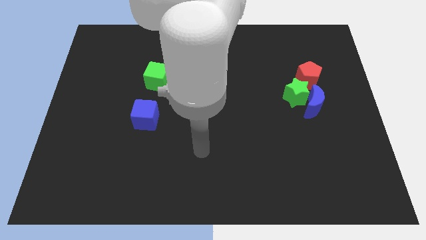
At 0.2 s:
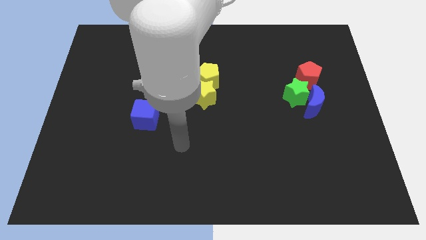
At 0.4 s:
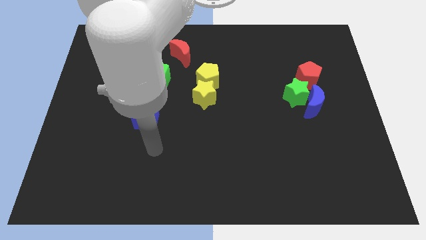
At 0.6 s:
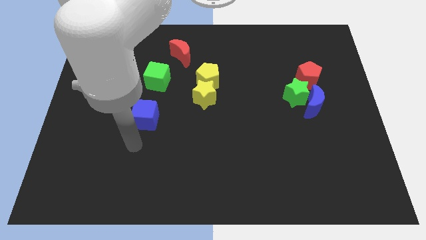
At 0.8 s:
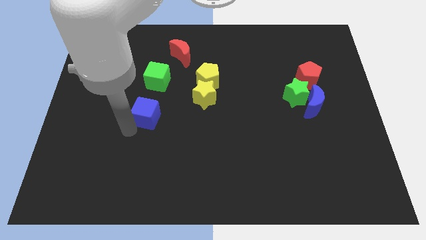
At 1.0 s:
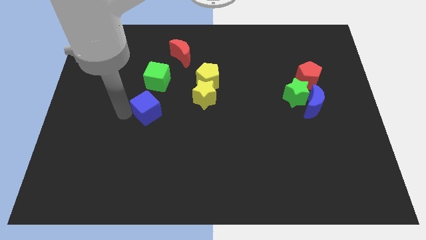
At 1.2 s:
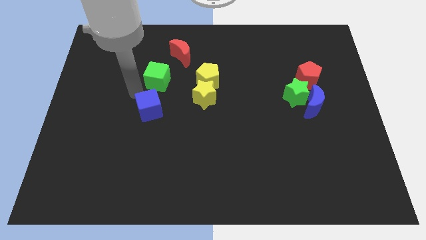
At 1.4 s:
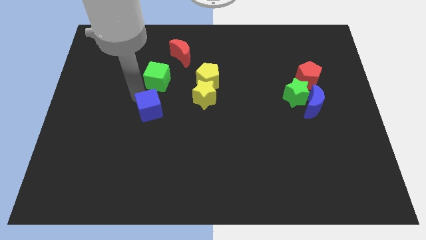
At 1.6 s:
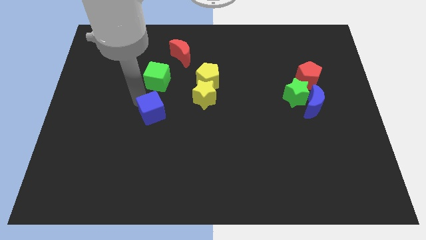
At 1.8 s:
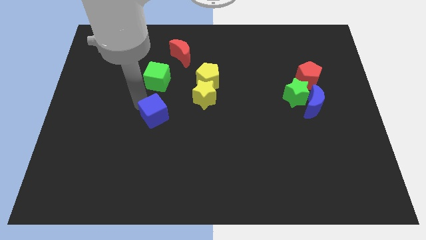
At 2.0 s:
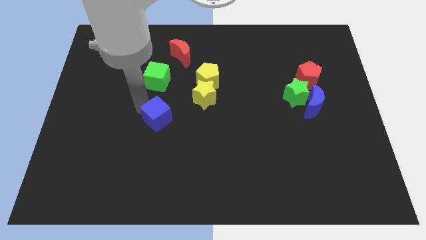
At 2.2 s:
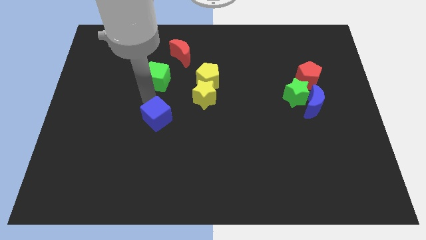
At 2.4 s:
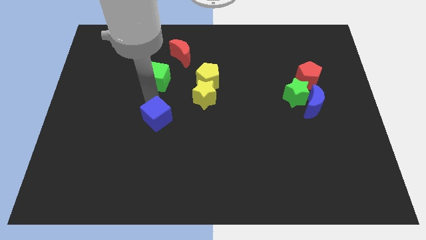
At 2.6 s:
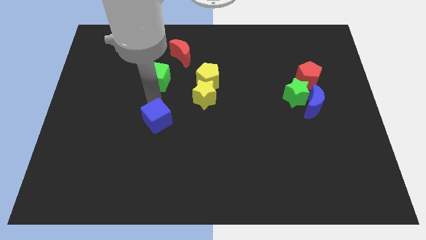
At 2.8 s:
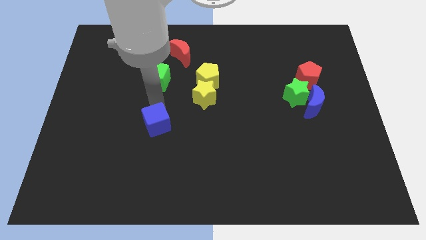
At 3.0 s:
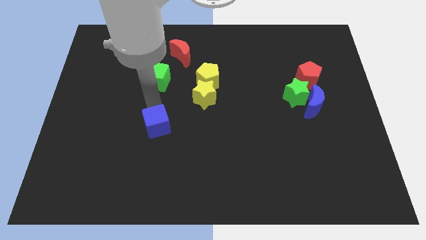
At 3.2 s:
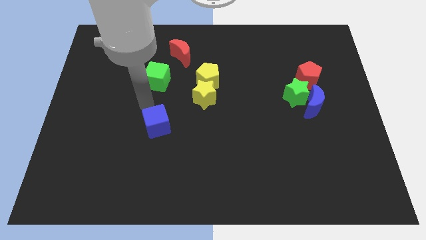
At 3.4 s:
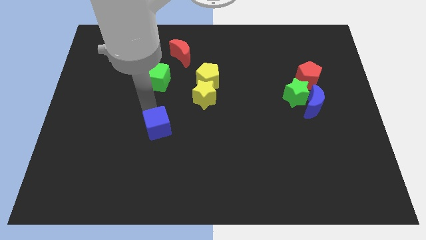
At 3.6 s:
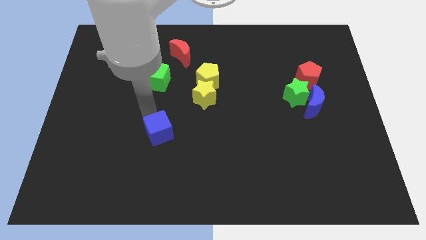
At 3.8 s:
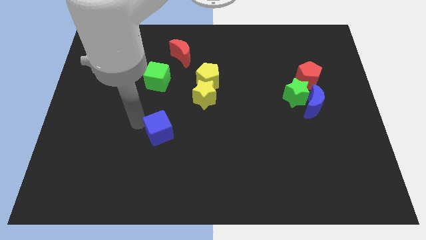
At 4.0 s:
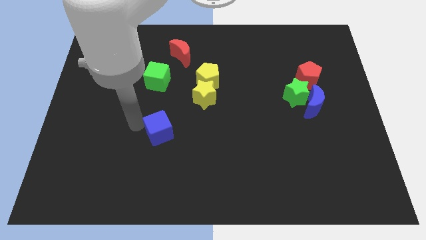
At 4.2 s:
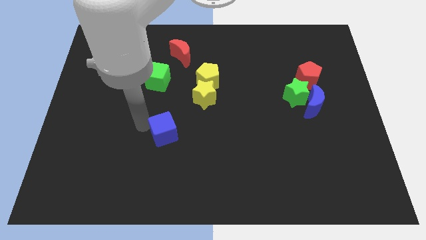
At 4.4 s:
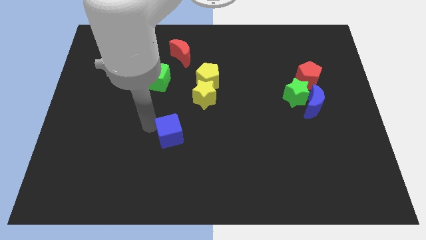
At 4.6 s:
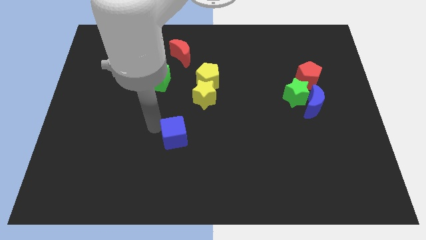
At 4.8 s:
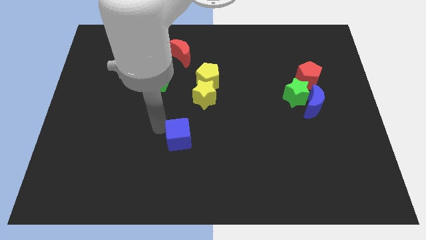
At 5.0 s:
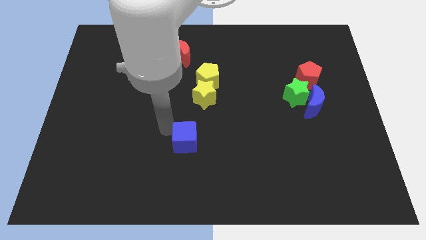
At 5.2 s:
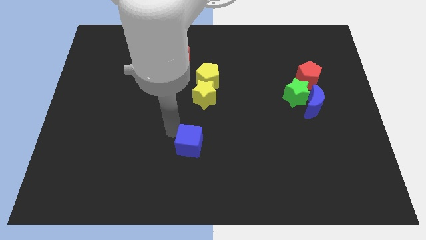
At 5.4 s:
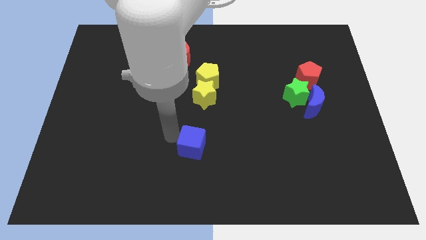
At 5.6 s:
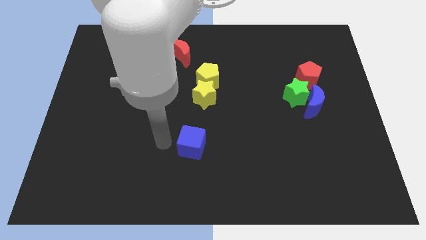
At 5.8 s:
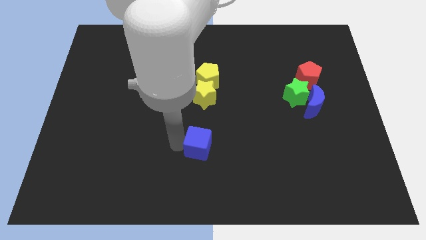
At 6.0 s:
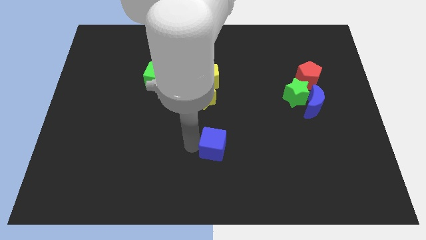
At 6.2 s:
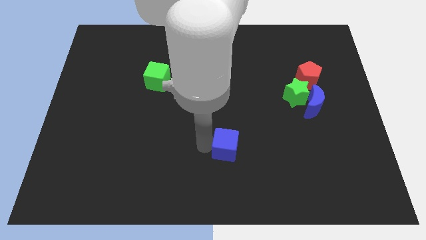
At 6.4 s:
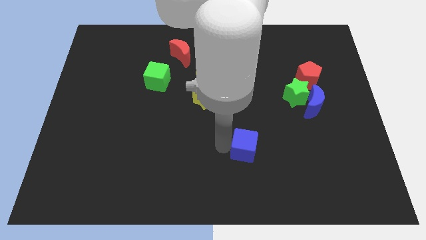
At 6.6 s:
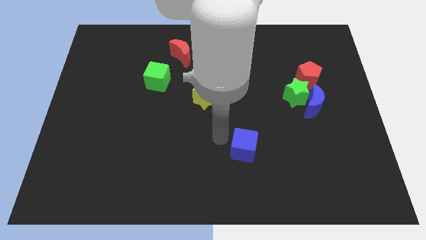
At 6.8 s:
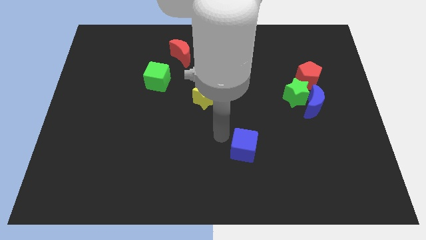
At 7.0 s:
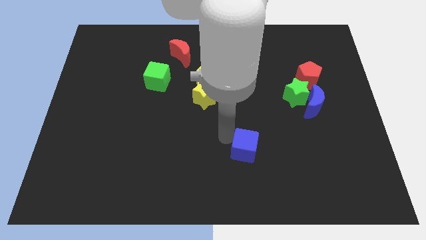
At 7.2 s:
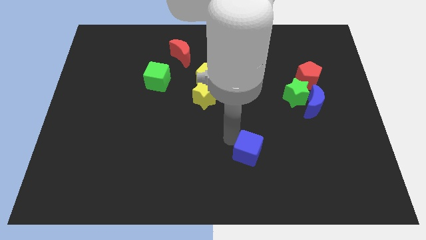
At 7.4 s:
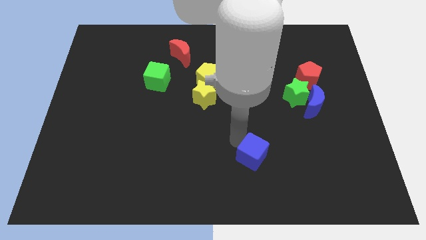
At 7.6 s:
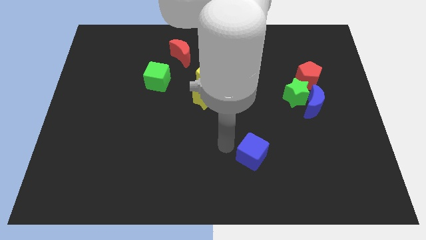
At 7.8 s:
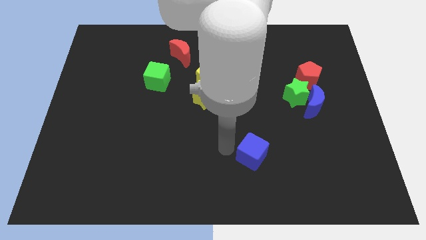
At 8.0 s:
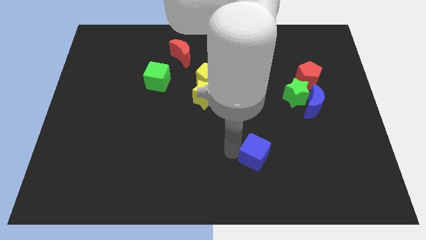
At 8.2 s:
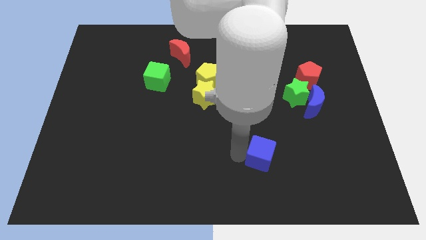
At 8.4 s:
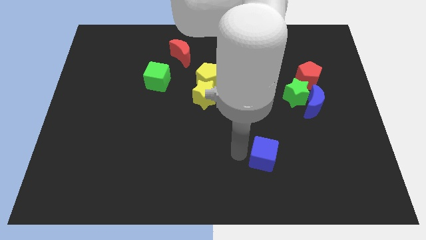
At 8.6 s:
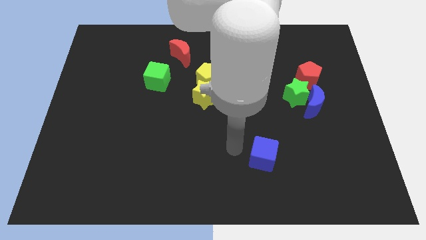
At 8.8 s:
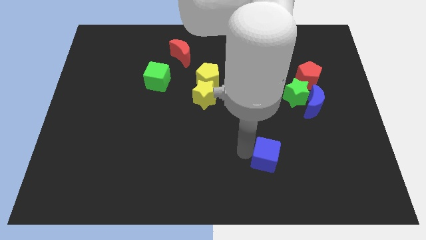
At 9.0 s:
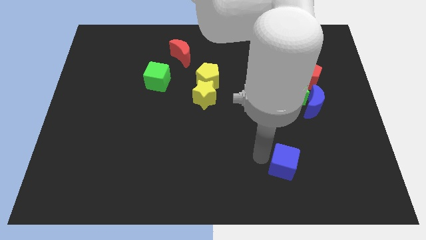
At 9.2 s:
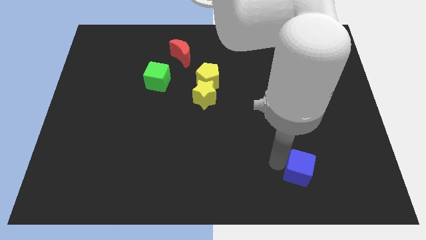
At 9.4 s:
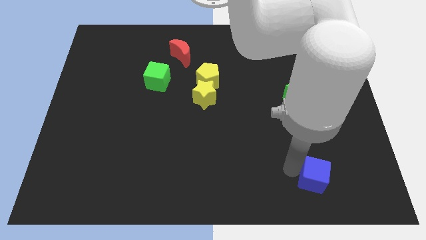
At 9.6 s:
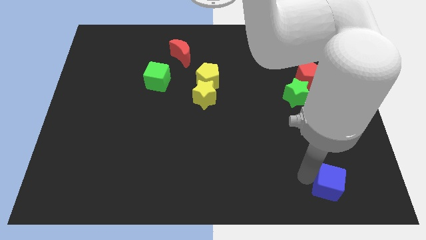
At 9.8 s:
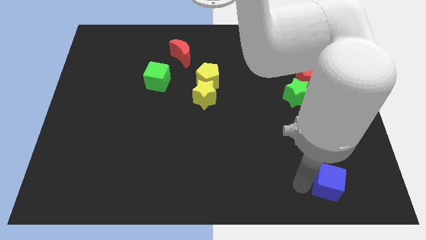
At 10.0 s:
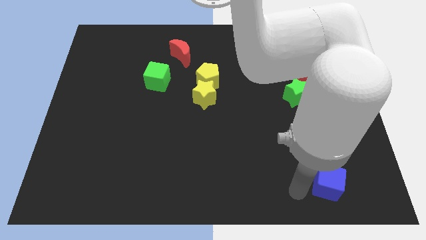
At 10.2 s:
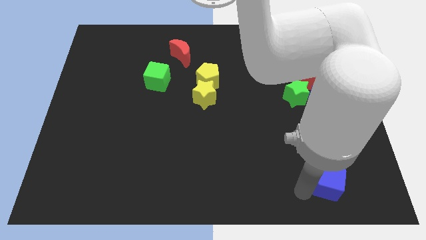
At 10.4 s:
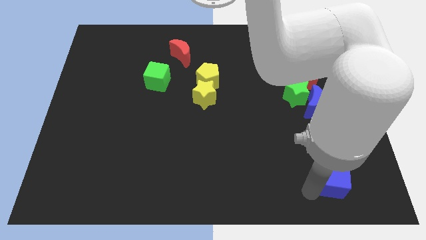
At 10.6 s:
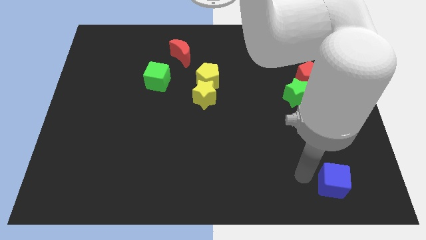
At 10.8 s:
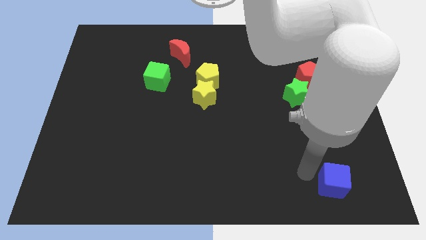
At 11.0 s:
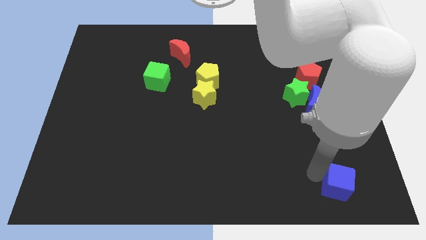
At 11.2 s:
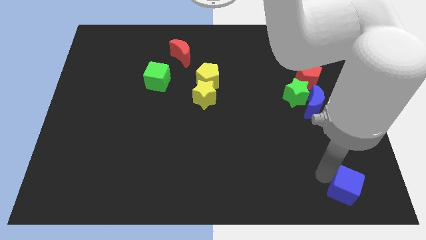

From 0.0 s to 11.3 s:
put the blue cube to the lower right corner
